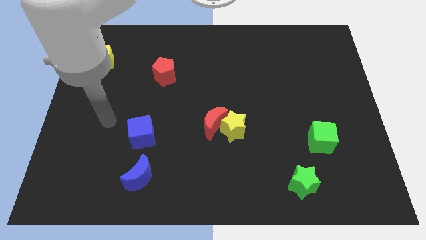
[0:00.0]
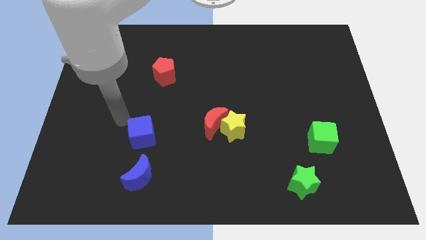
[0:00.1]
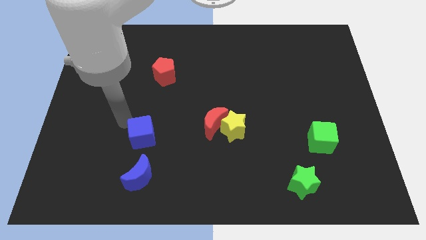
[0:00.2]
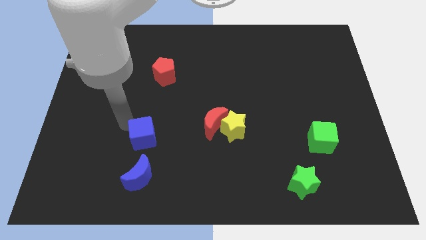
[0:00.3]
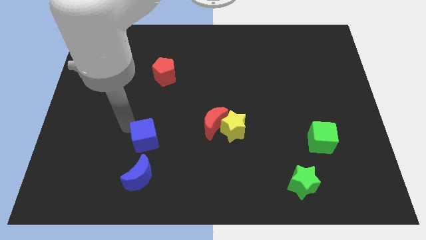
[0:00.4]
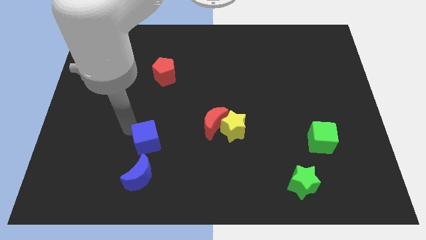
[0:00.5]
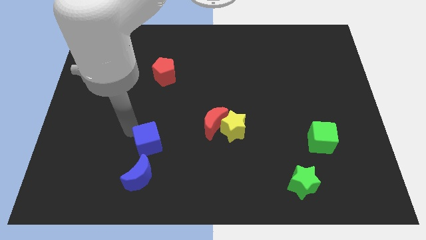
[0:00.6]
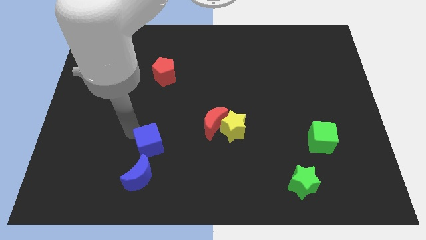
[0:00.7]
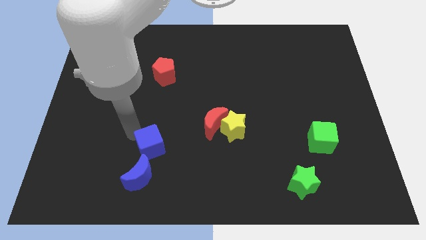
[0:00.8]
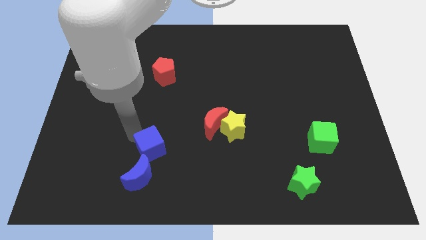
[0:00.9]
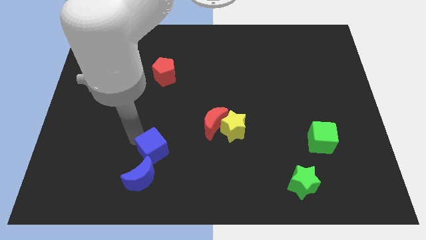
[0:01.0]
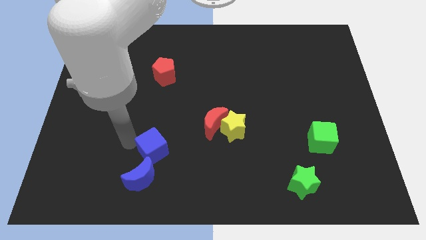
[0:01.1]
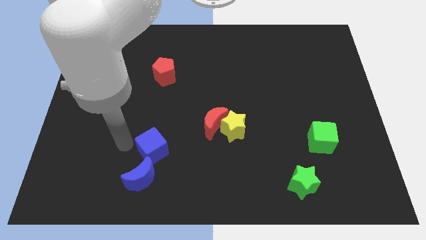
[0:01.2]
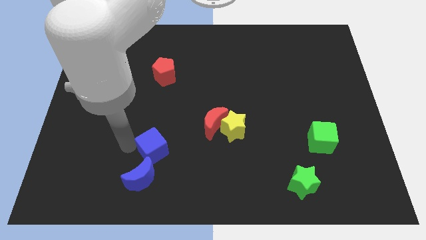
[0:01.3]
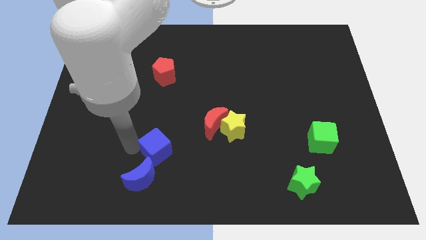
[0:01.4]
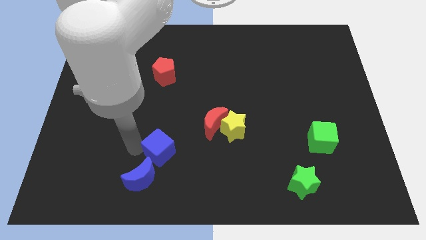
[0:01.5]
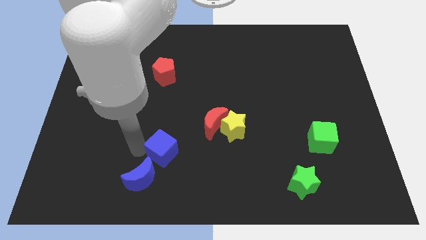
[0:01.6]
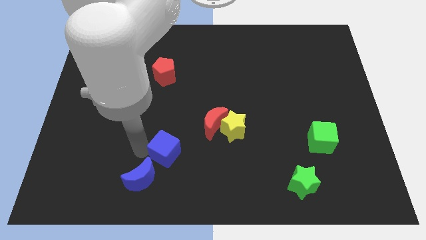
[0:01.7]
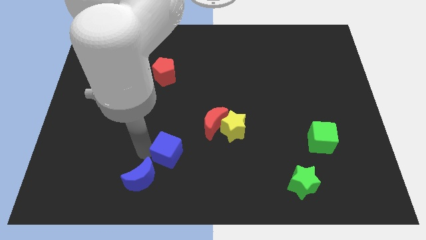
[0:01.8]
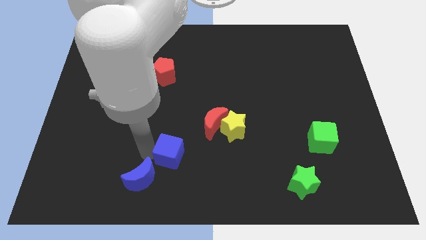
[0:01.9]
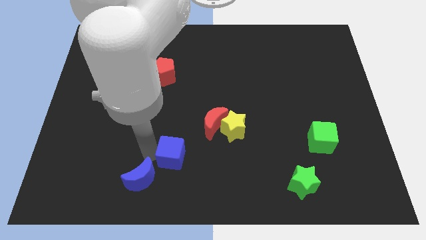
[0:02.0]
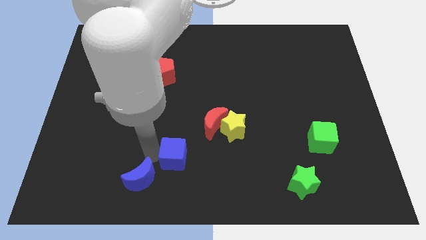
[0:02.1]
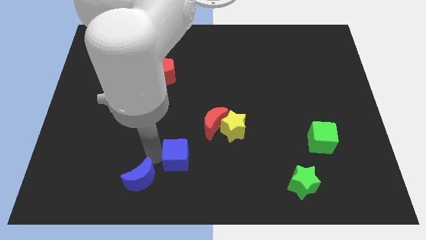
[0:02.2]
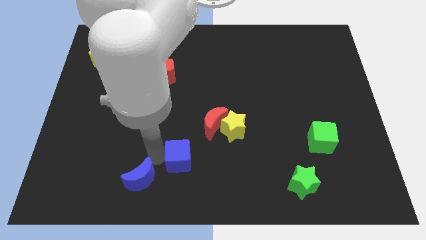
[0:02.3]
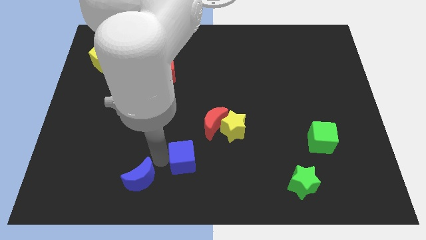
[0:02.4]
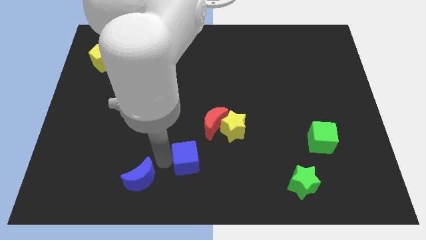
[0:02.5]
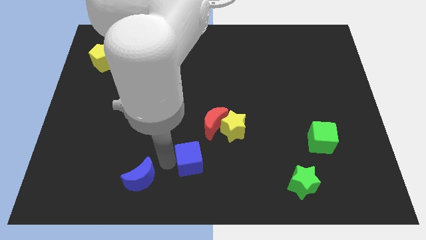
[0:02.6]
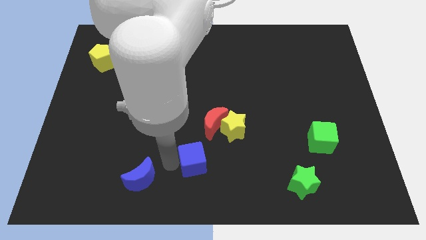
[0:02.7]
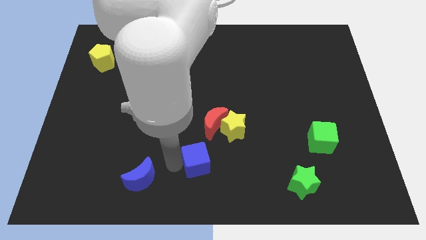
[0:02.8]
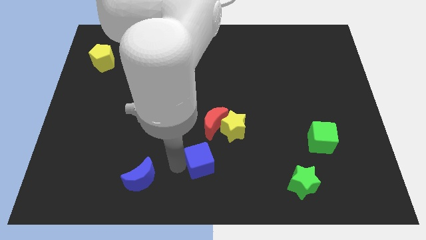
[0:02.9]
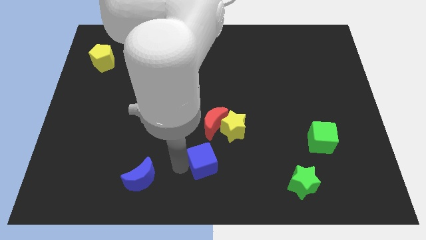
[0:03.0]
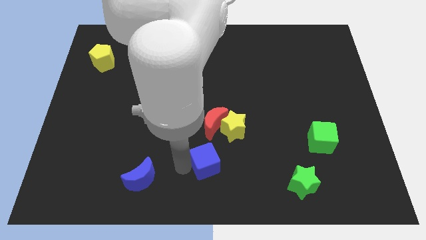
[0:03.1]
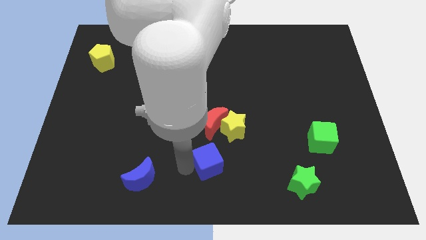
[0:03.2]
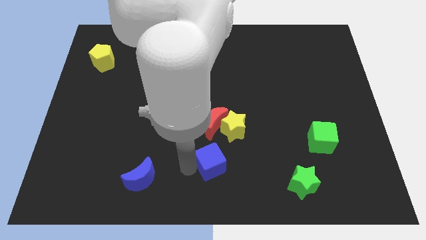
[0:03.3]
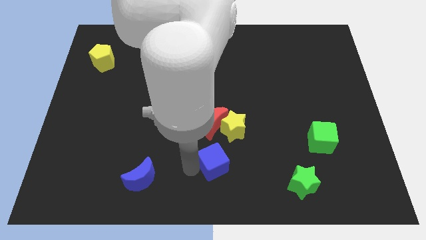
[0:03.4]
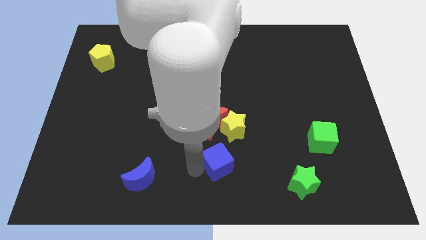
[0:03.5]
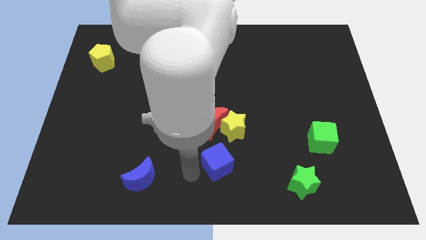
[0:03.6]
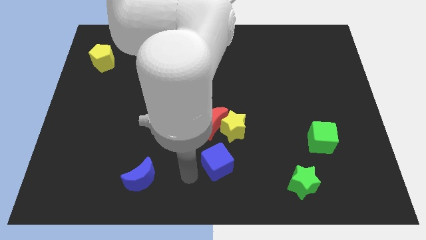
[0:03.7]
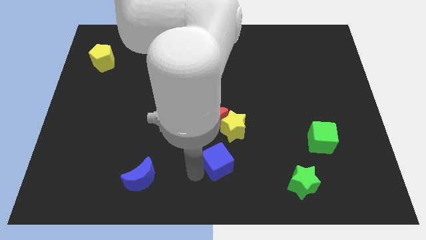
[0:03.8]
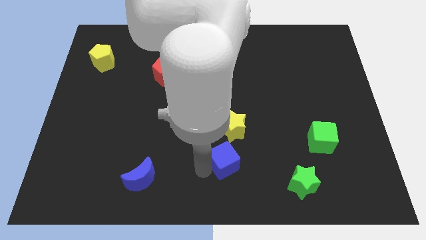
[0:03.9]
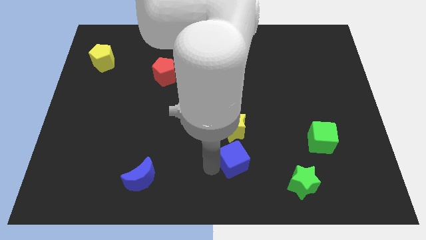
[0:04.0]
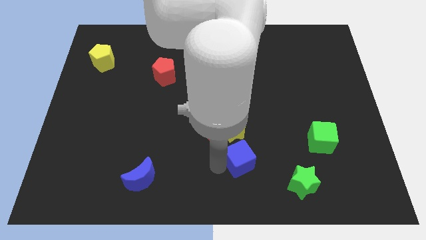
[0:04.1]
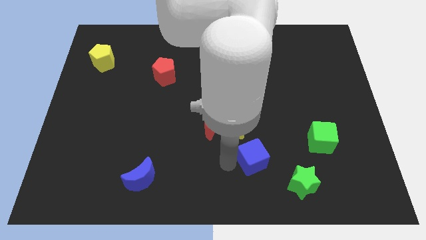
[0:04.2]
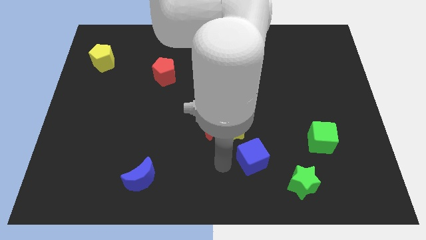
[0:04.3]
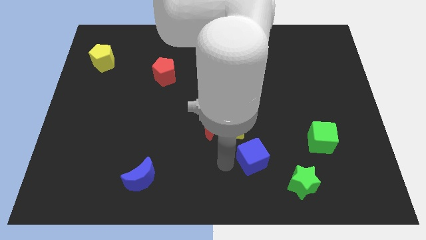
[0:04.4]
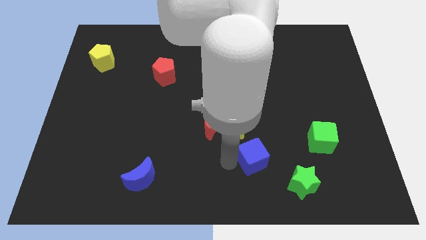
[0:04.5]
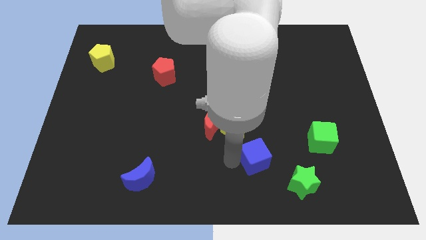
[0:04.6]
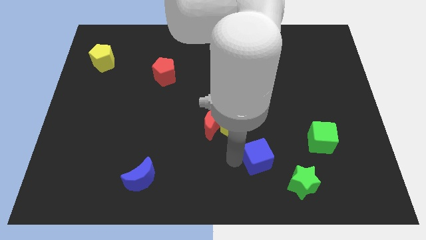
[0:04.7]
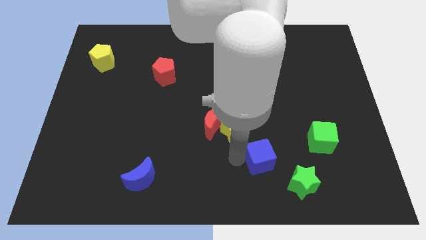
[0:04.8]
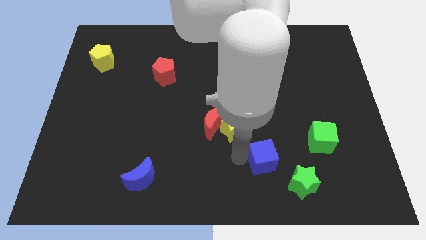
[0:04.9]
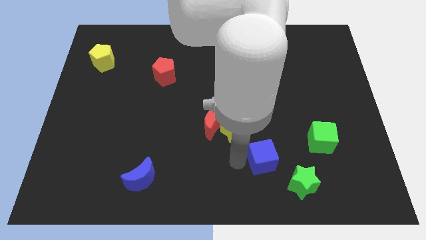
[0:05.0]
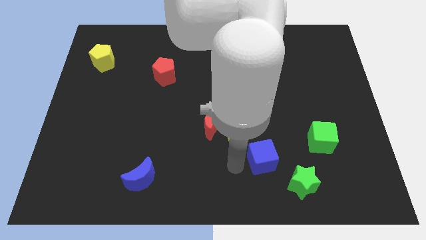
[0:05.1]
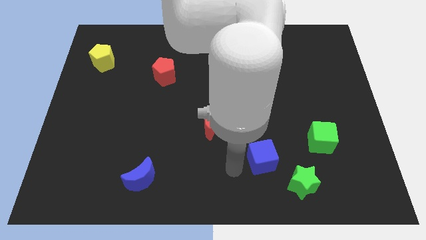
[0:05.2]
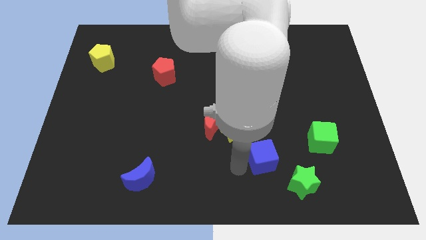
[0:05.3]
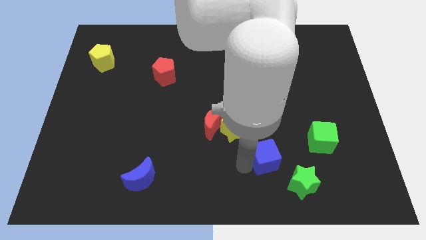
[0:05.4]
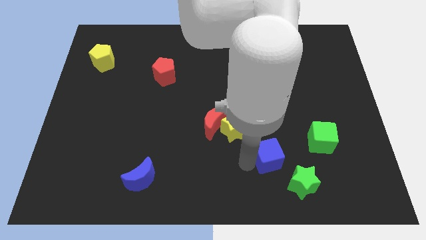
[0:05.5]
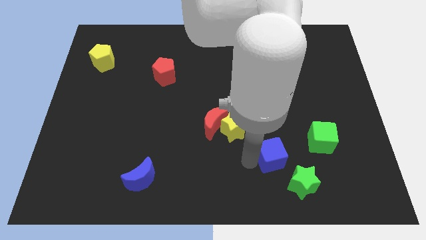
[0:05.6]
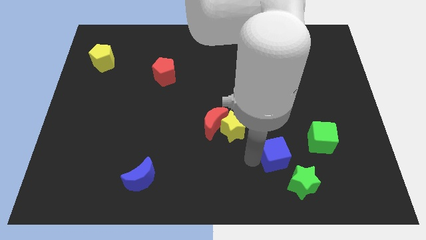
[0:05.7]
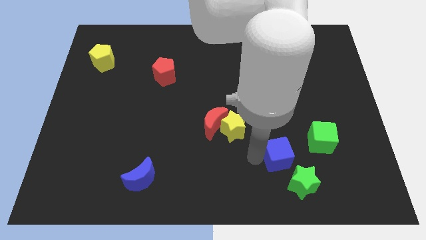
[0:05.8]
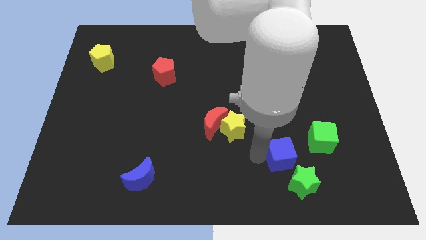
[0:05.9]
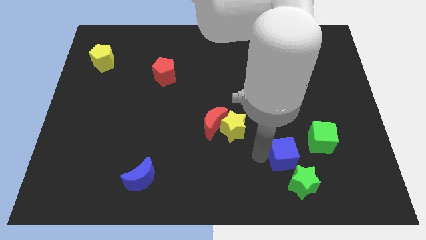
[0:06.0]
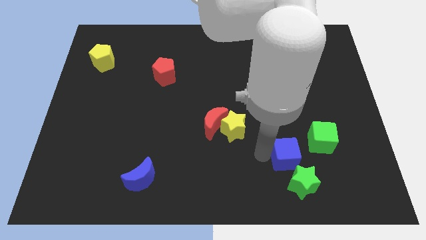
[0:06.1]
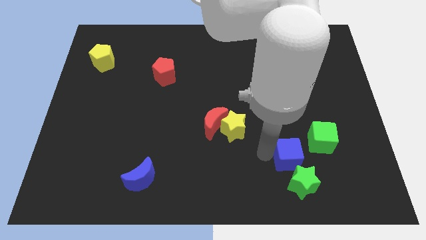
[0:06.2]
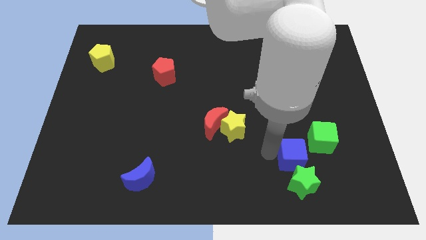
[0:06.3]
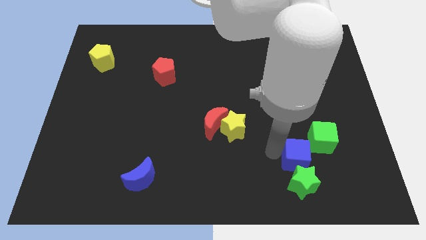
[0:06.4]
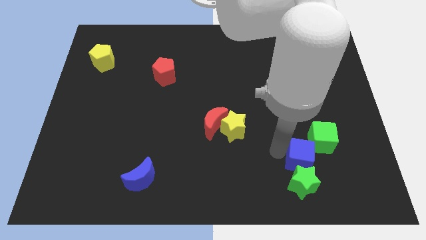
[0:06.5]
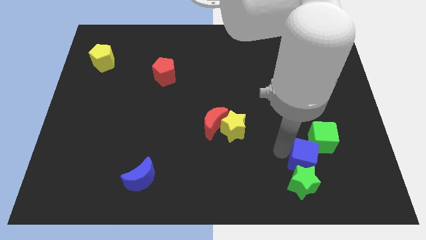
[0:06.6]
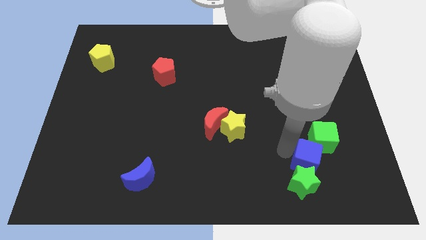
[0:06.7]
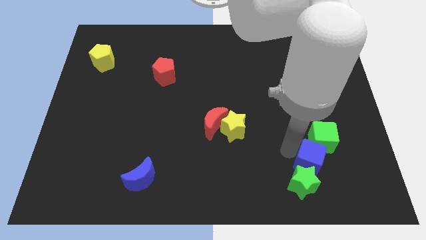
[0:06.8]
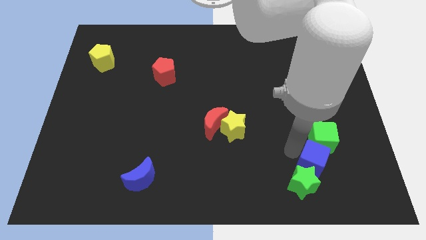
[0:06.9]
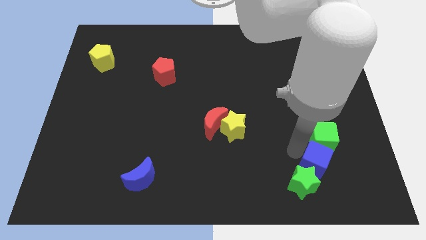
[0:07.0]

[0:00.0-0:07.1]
put the blue cube right of the green star
